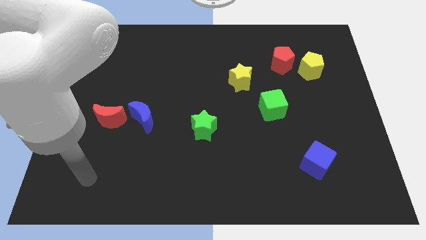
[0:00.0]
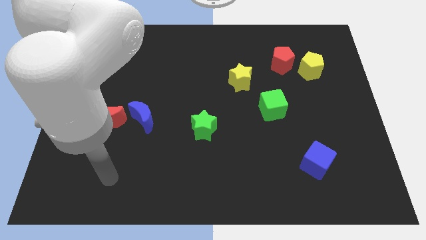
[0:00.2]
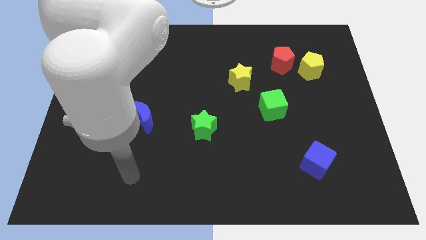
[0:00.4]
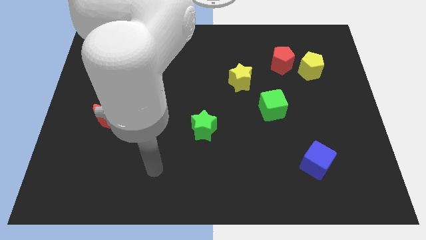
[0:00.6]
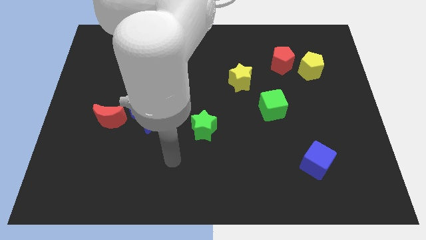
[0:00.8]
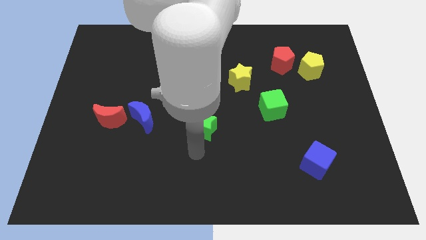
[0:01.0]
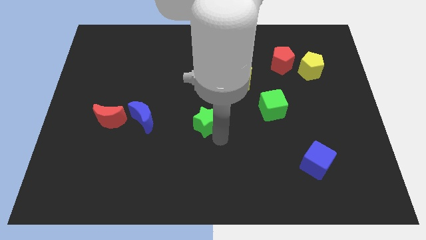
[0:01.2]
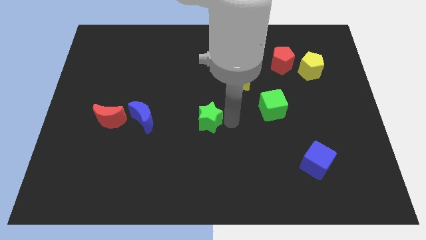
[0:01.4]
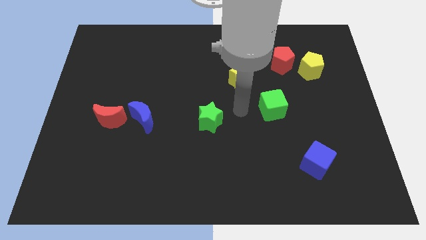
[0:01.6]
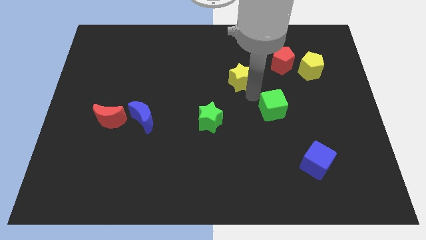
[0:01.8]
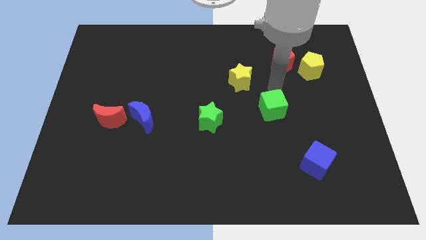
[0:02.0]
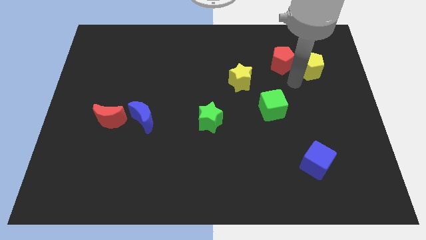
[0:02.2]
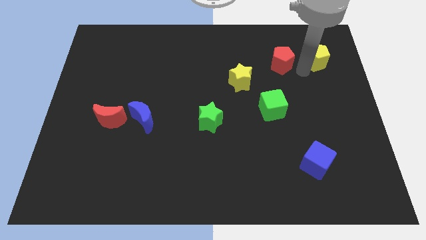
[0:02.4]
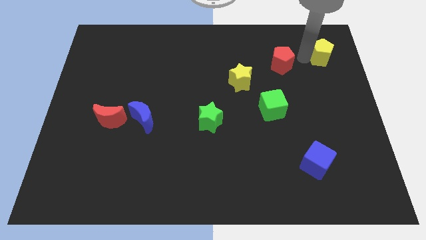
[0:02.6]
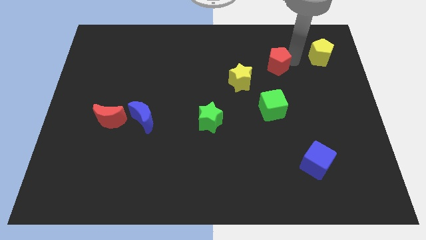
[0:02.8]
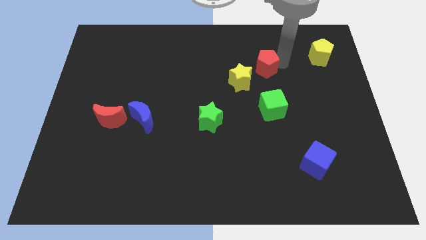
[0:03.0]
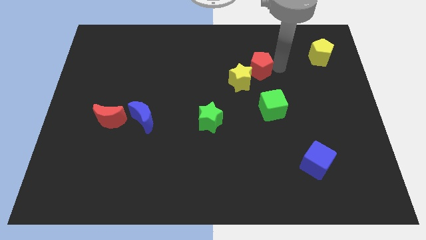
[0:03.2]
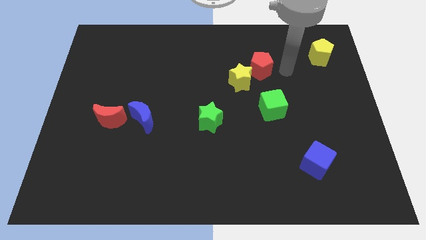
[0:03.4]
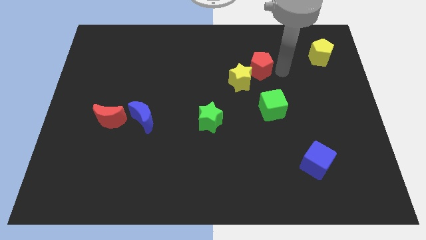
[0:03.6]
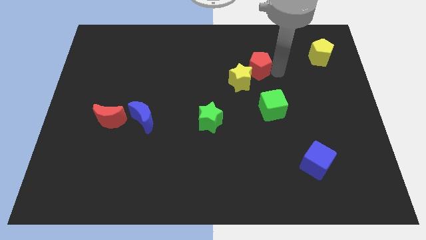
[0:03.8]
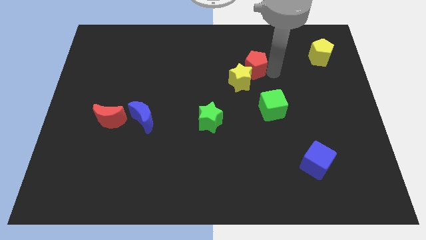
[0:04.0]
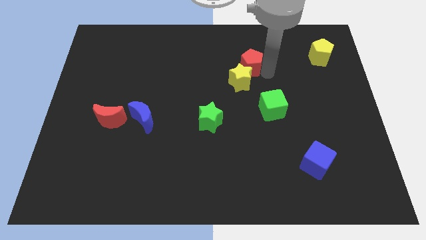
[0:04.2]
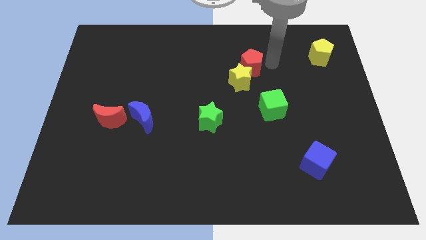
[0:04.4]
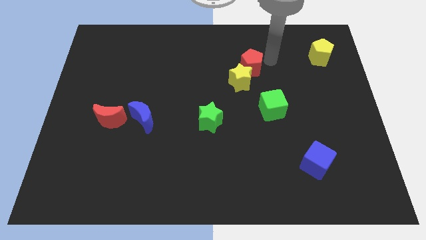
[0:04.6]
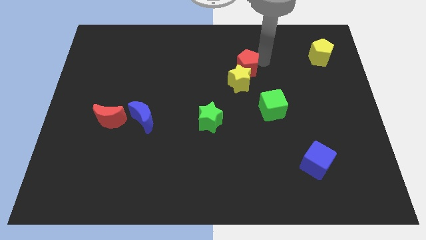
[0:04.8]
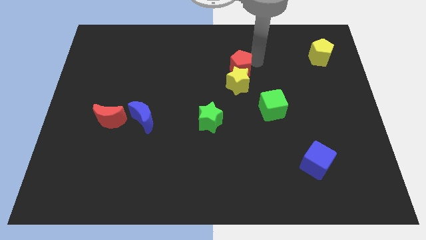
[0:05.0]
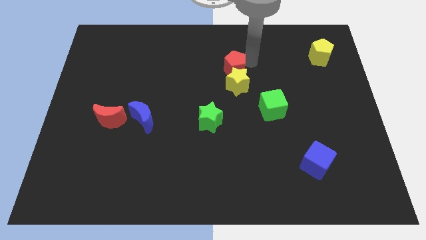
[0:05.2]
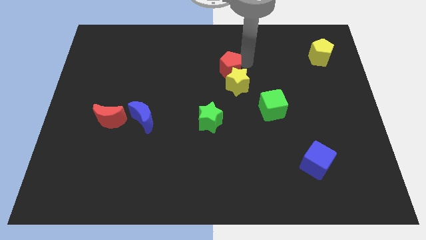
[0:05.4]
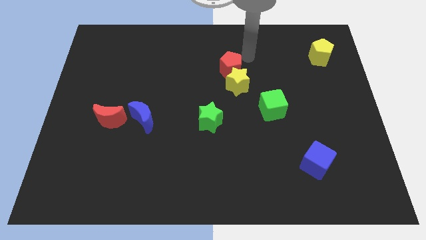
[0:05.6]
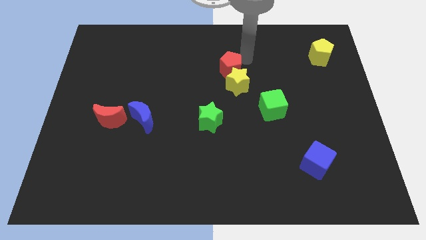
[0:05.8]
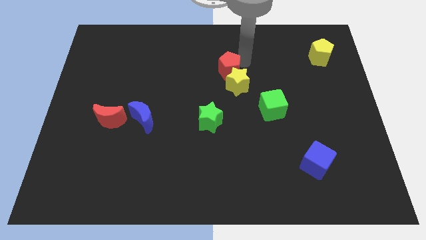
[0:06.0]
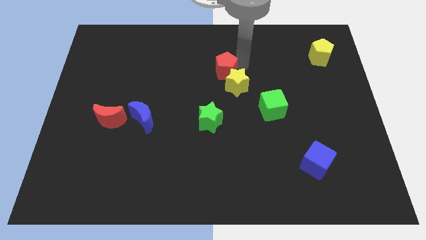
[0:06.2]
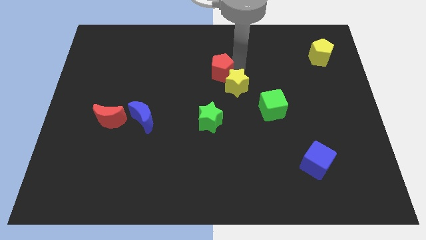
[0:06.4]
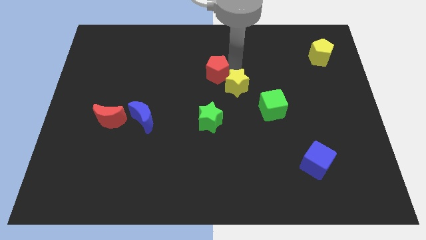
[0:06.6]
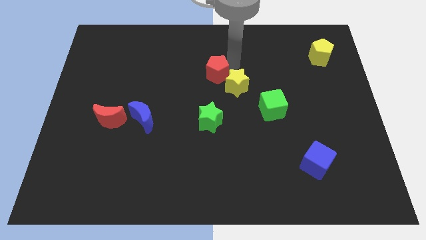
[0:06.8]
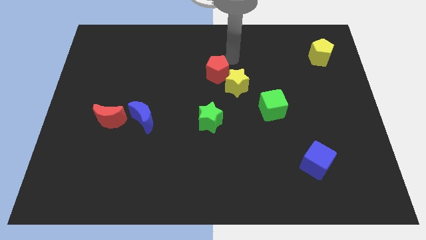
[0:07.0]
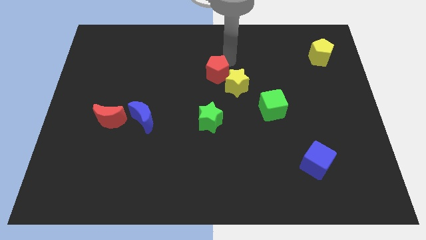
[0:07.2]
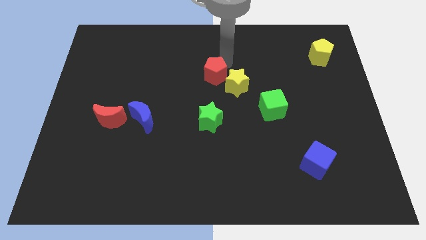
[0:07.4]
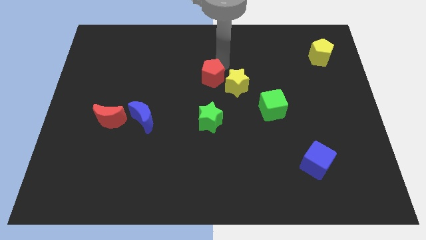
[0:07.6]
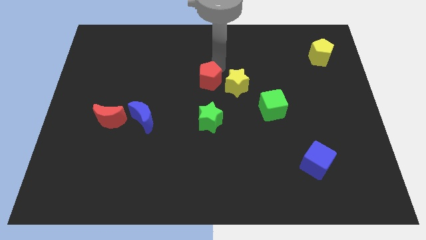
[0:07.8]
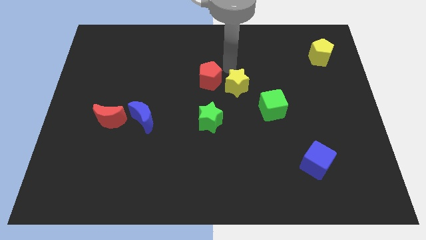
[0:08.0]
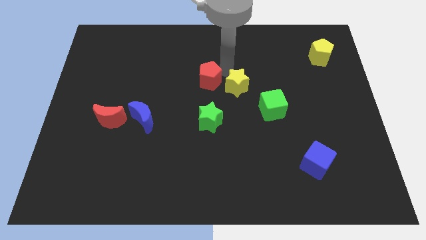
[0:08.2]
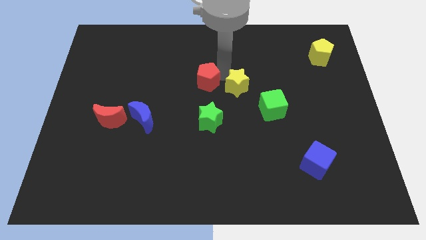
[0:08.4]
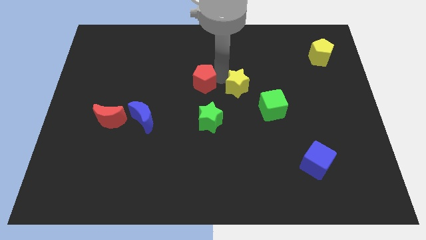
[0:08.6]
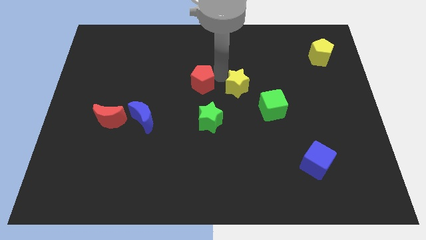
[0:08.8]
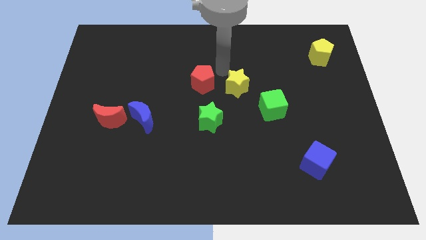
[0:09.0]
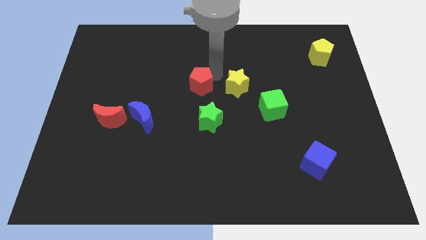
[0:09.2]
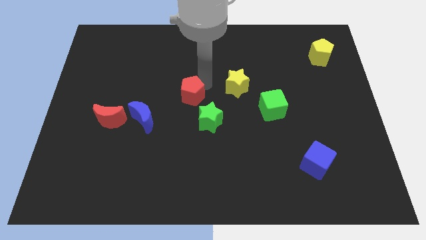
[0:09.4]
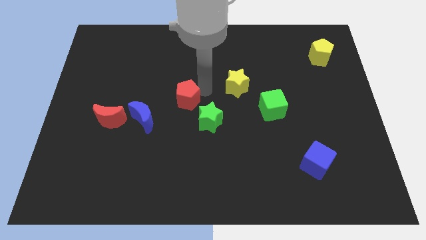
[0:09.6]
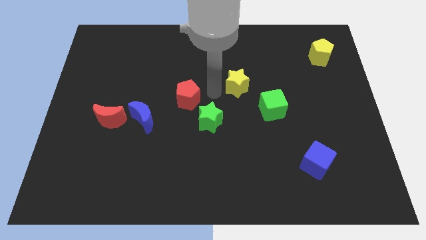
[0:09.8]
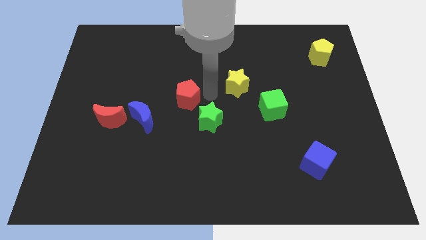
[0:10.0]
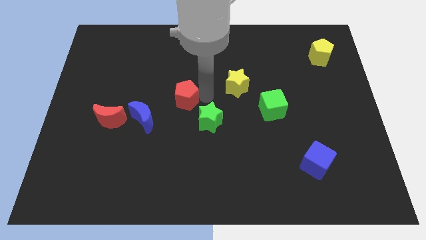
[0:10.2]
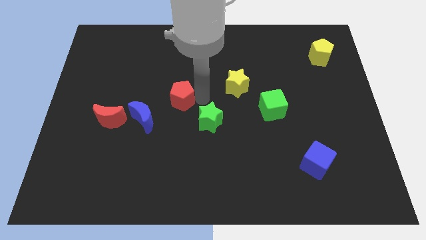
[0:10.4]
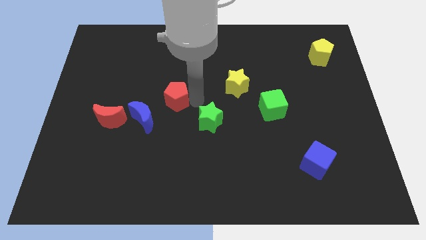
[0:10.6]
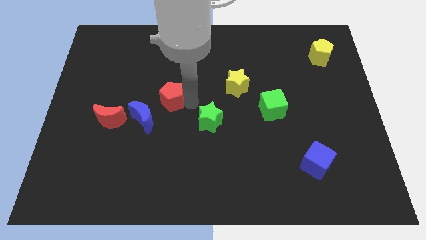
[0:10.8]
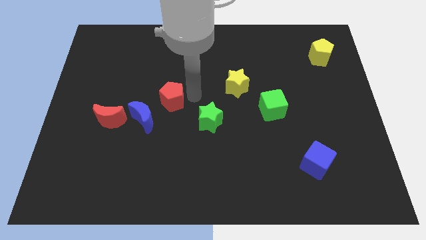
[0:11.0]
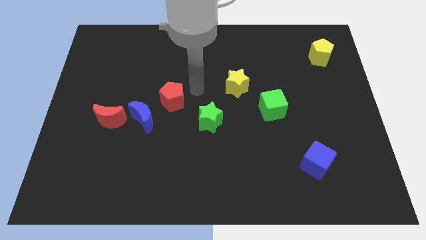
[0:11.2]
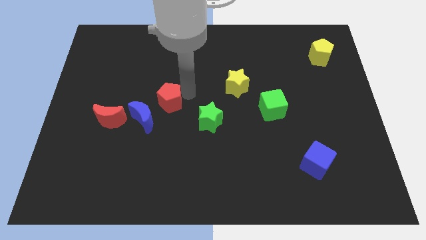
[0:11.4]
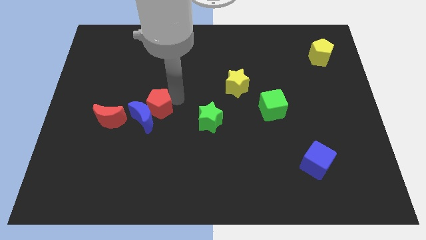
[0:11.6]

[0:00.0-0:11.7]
push the red pentagon close to the blue moon

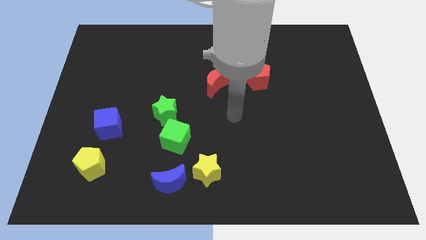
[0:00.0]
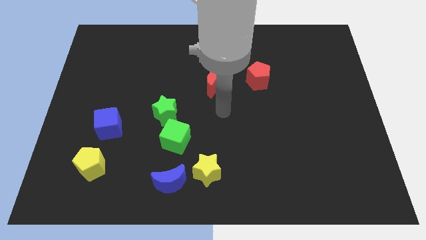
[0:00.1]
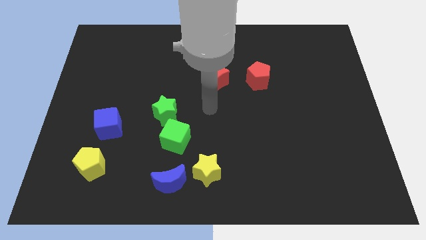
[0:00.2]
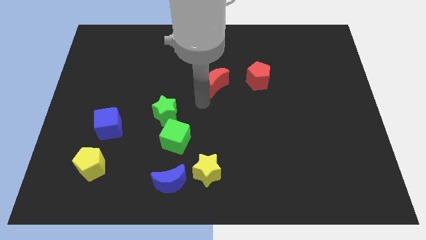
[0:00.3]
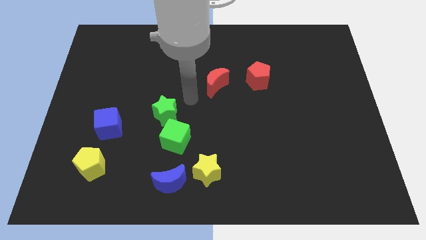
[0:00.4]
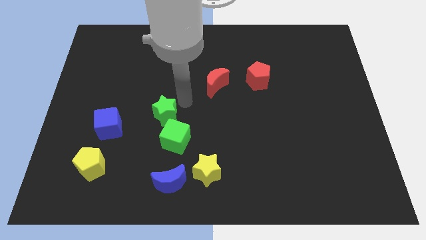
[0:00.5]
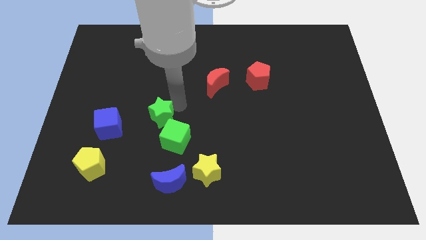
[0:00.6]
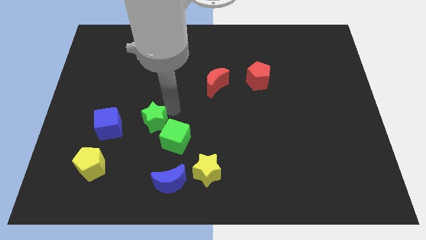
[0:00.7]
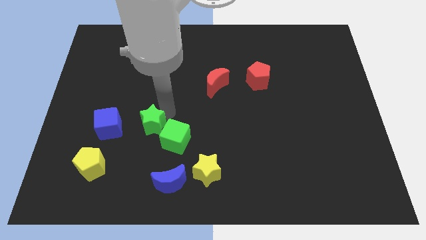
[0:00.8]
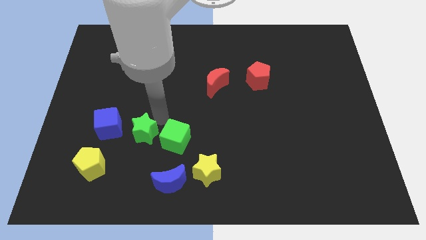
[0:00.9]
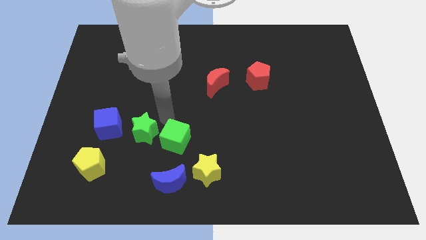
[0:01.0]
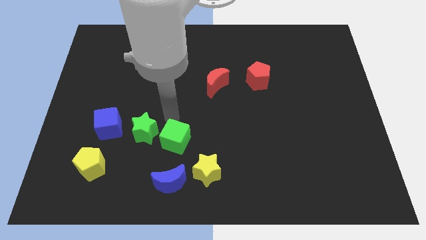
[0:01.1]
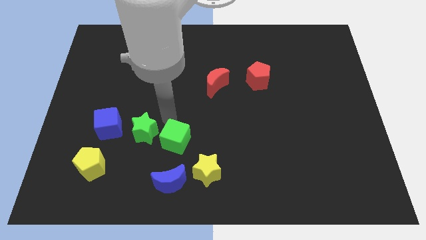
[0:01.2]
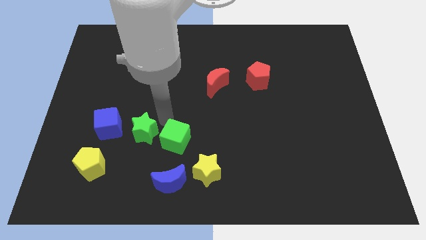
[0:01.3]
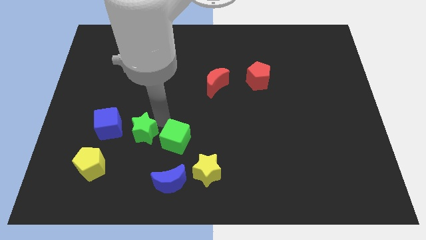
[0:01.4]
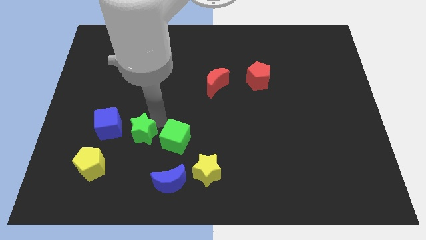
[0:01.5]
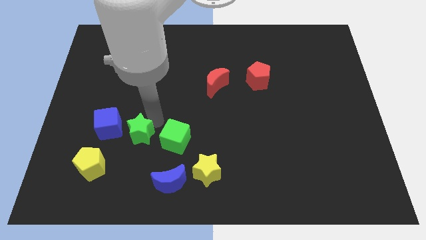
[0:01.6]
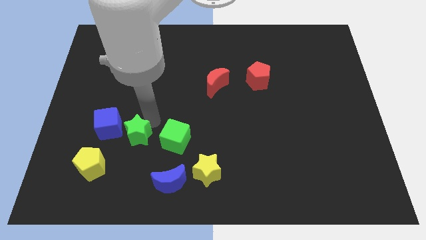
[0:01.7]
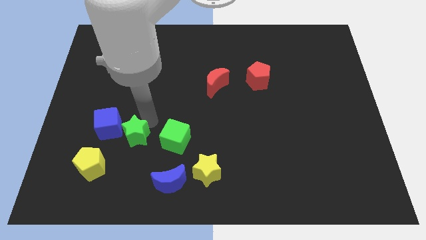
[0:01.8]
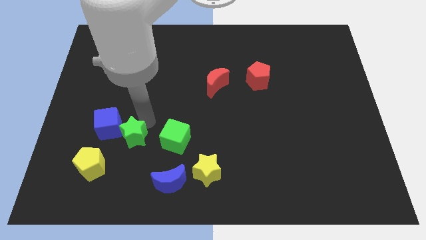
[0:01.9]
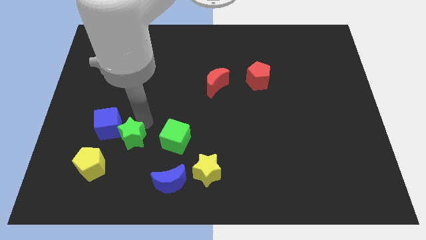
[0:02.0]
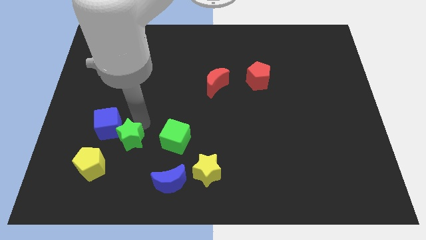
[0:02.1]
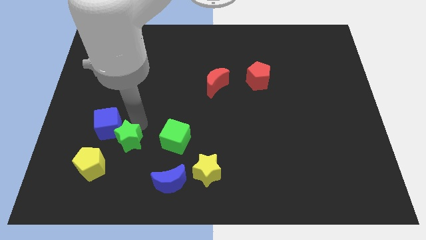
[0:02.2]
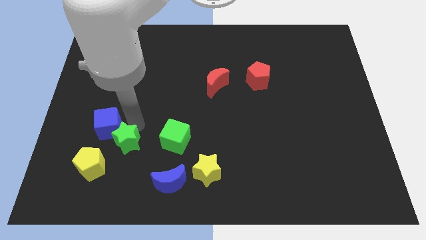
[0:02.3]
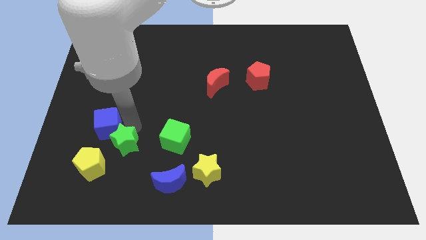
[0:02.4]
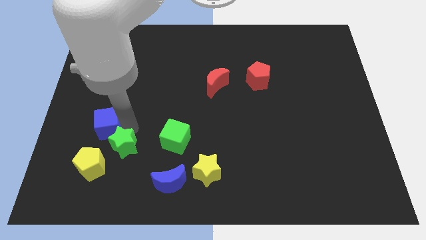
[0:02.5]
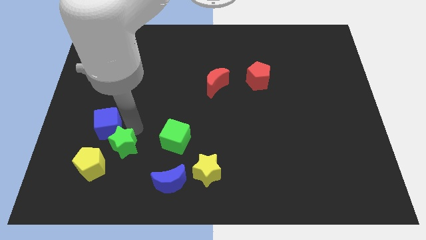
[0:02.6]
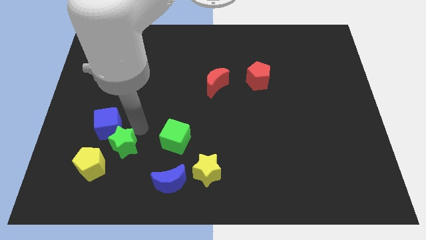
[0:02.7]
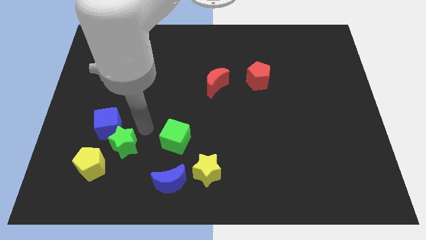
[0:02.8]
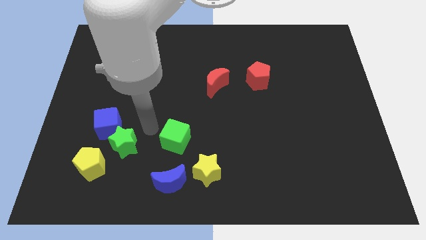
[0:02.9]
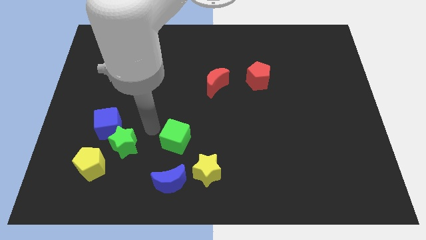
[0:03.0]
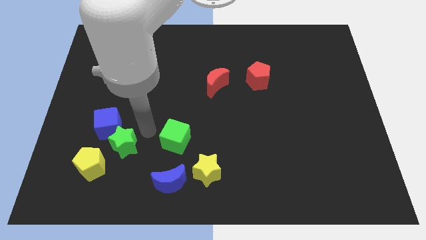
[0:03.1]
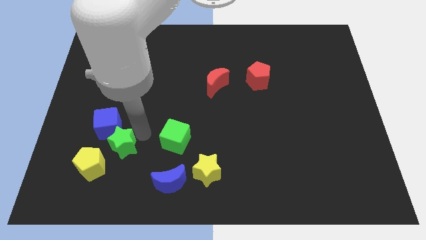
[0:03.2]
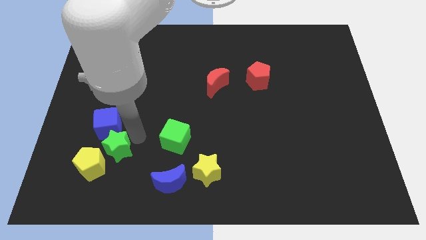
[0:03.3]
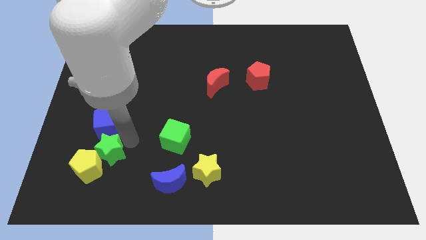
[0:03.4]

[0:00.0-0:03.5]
move the green star to the yellow pentagon
